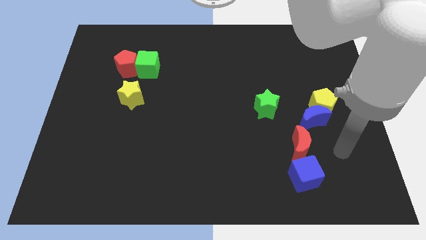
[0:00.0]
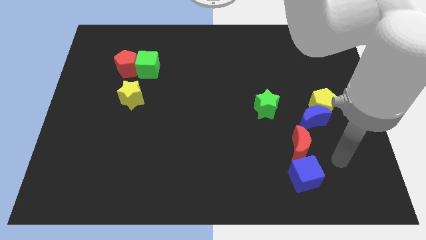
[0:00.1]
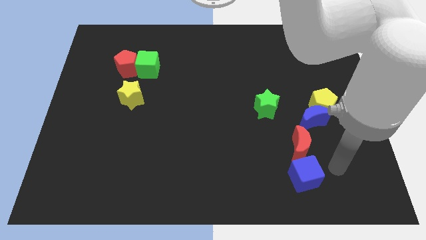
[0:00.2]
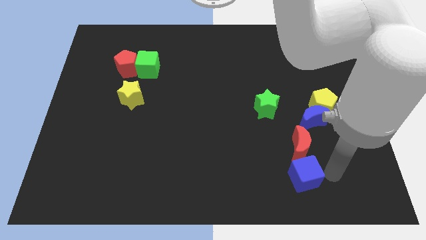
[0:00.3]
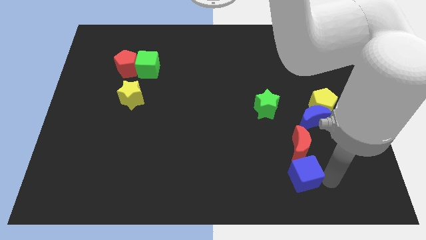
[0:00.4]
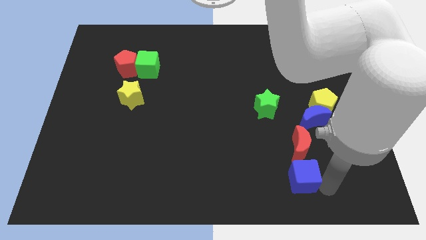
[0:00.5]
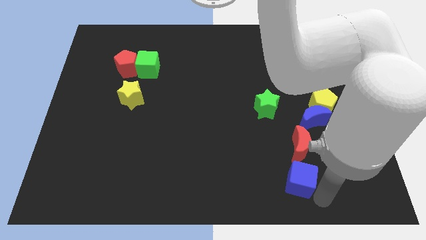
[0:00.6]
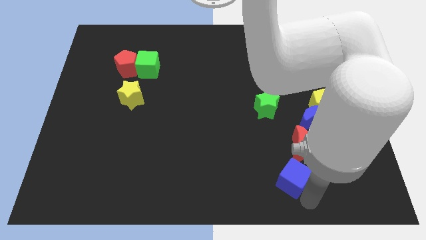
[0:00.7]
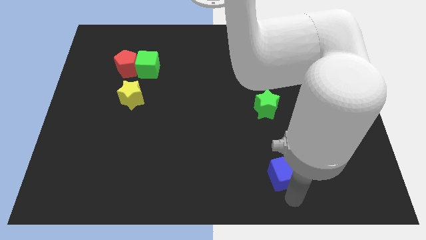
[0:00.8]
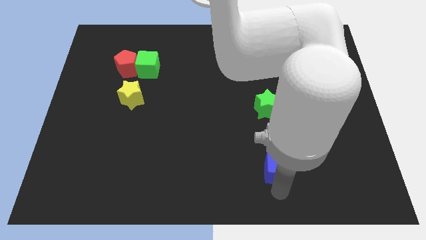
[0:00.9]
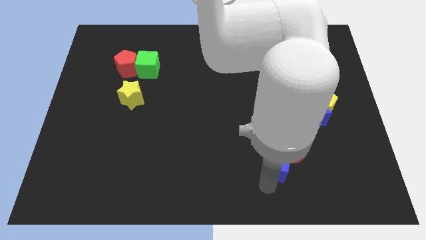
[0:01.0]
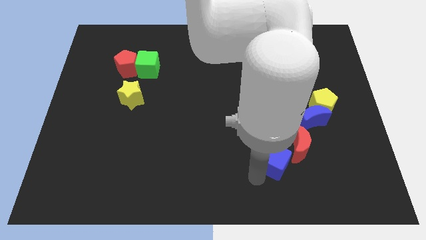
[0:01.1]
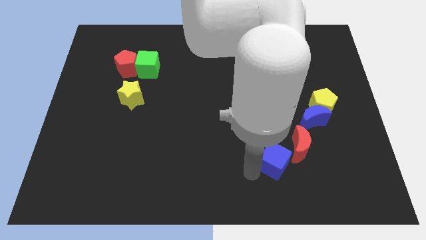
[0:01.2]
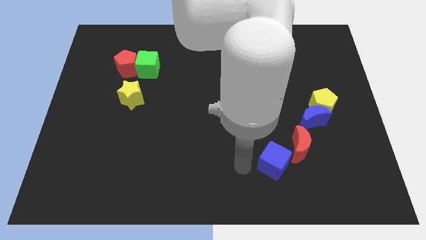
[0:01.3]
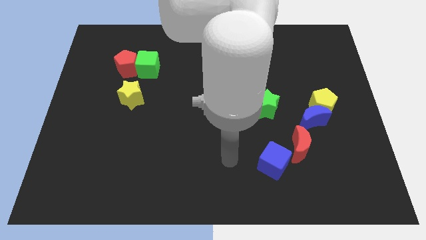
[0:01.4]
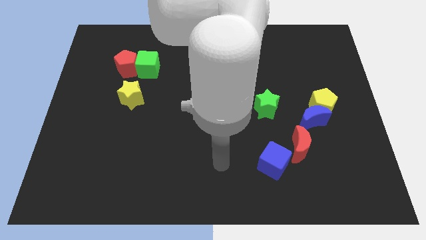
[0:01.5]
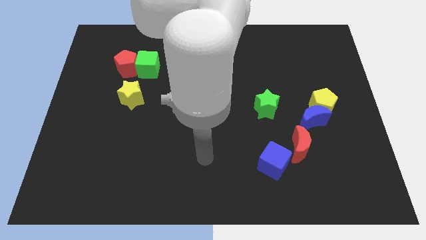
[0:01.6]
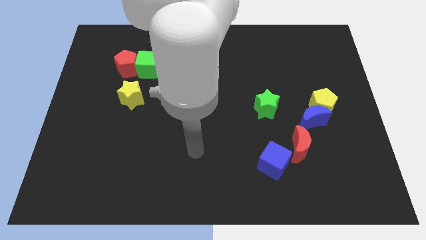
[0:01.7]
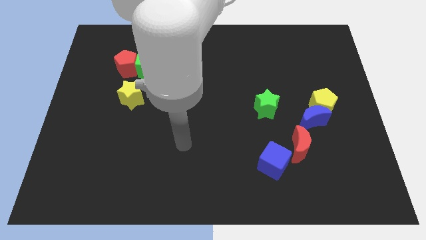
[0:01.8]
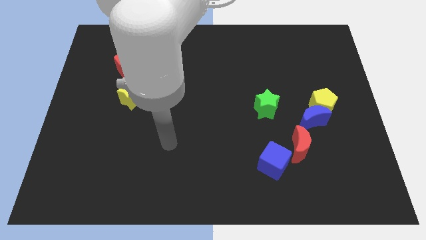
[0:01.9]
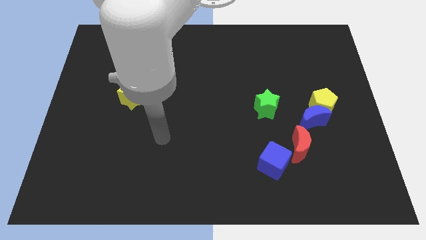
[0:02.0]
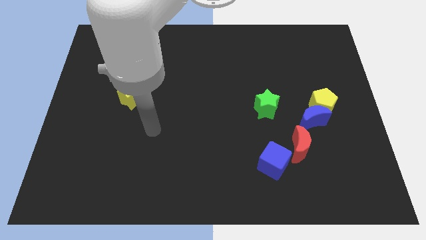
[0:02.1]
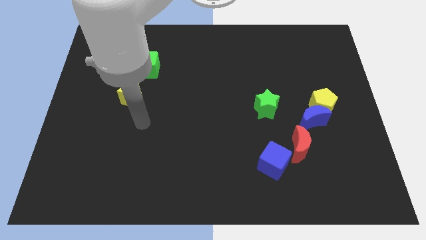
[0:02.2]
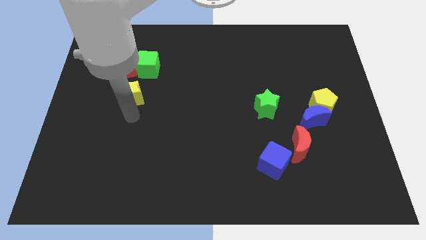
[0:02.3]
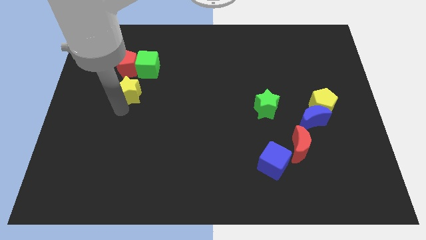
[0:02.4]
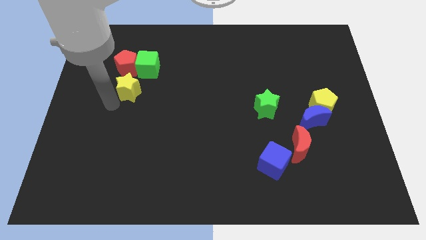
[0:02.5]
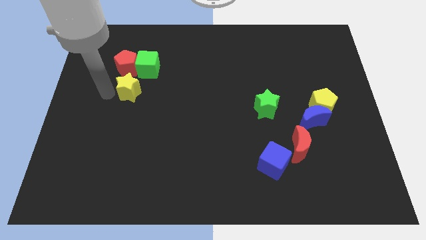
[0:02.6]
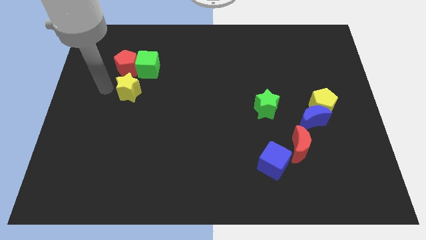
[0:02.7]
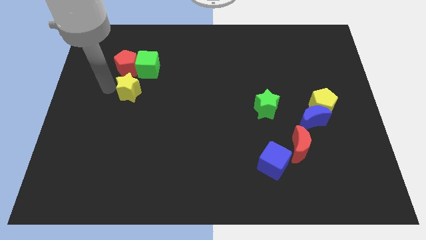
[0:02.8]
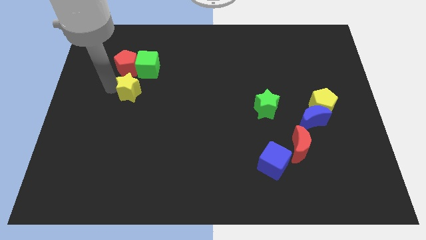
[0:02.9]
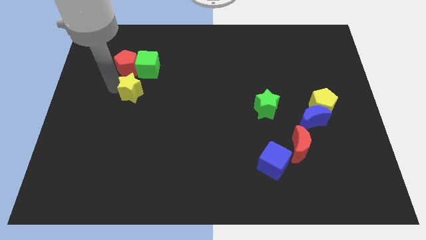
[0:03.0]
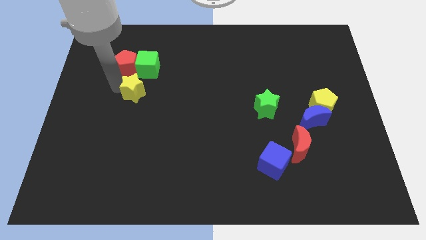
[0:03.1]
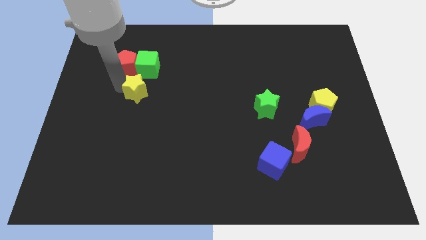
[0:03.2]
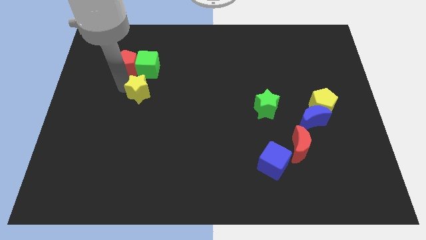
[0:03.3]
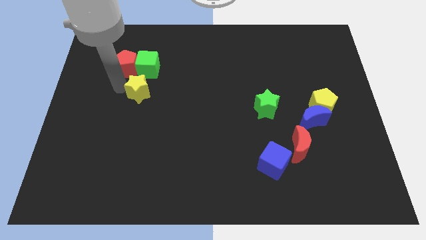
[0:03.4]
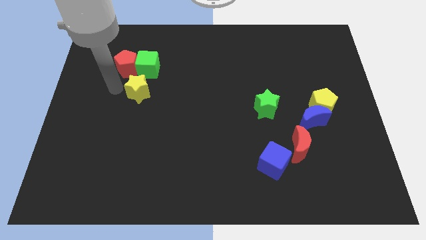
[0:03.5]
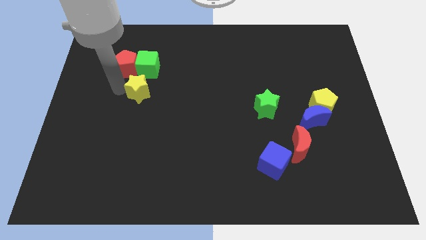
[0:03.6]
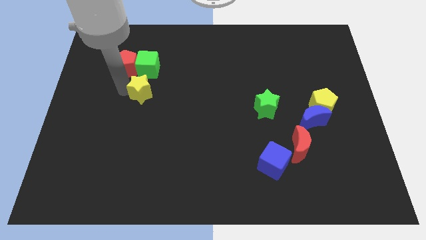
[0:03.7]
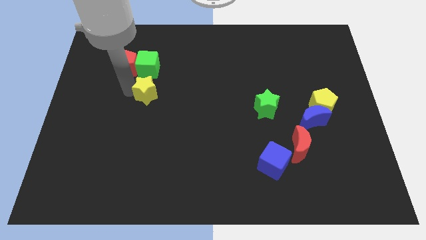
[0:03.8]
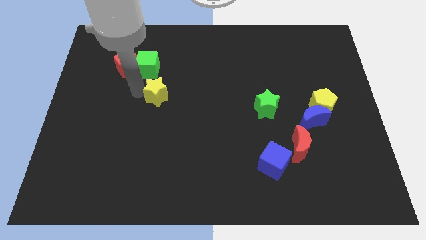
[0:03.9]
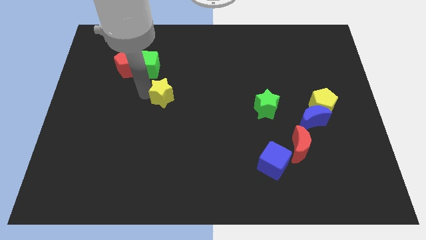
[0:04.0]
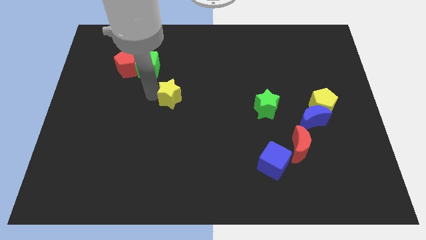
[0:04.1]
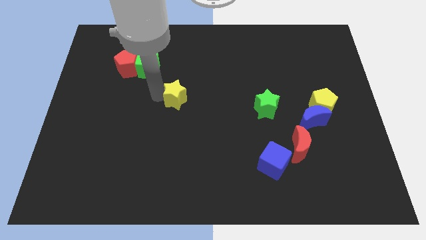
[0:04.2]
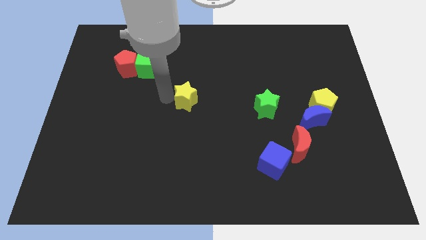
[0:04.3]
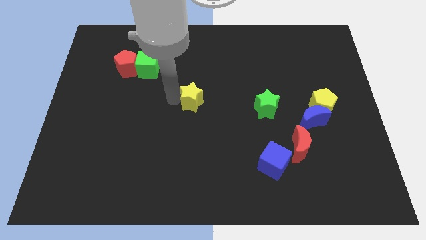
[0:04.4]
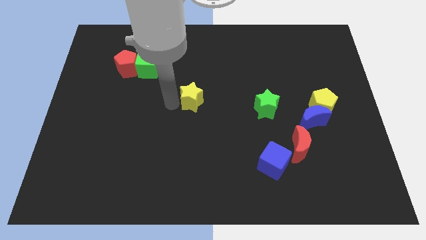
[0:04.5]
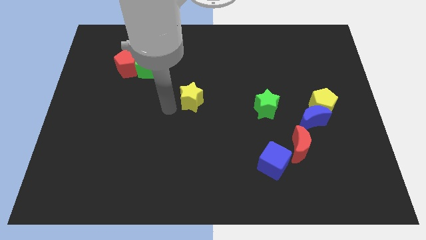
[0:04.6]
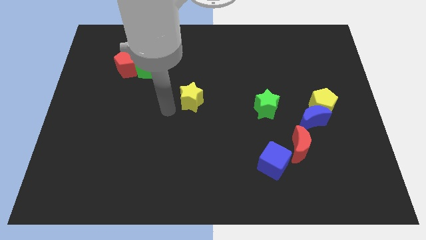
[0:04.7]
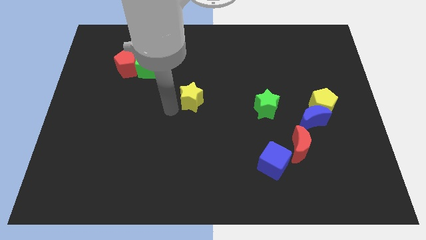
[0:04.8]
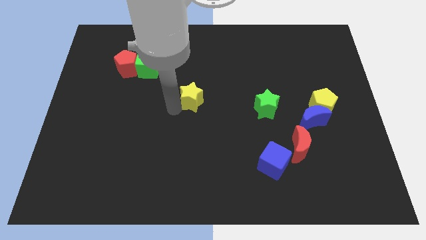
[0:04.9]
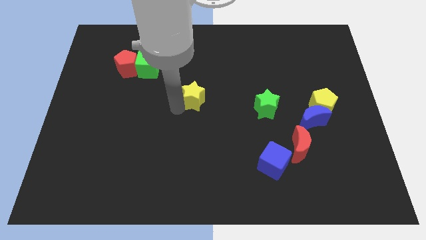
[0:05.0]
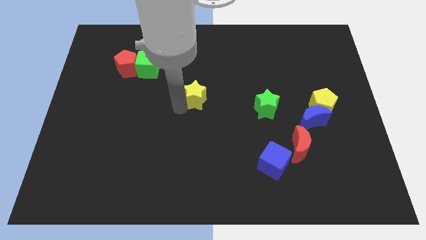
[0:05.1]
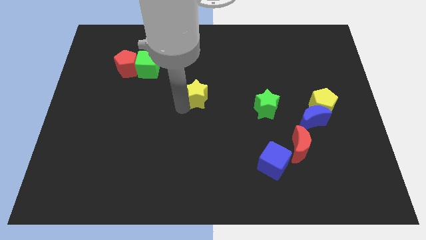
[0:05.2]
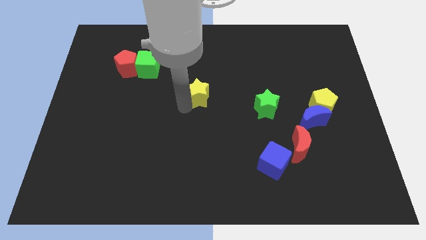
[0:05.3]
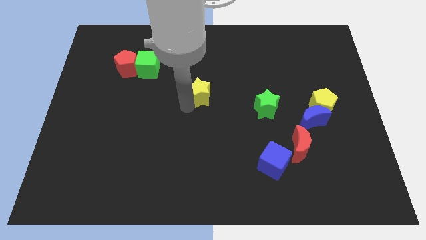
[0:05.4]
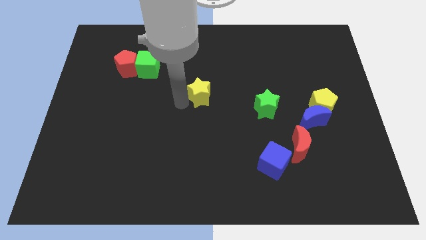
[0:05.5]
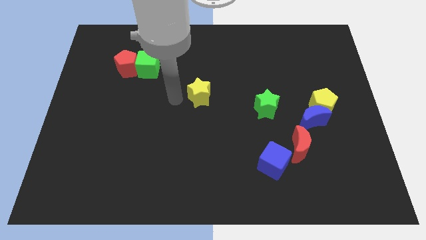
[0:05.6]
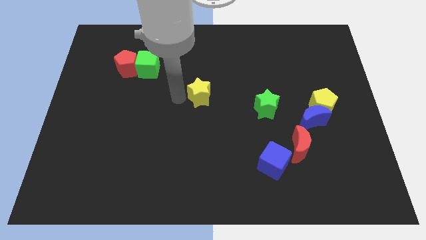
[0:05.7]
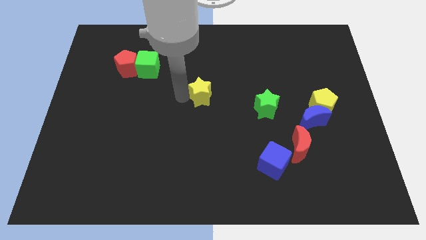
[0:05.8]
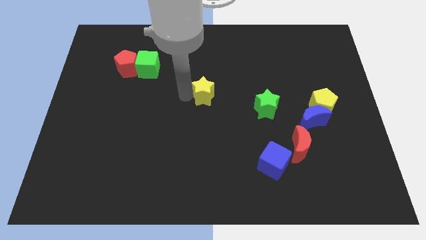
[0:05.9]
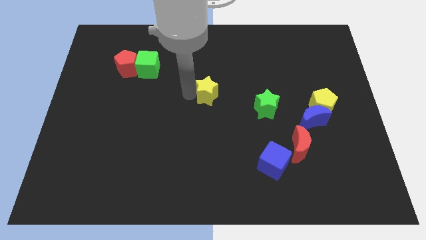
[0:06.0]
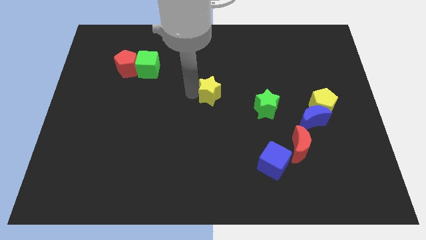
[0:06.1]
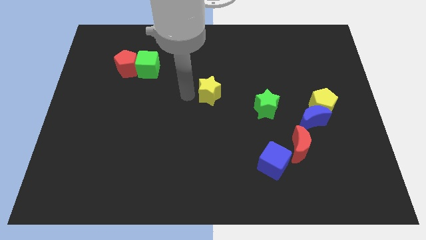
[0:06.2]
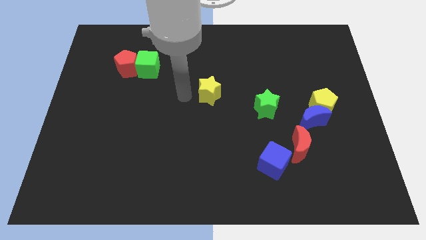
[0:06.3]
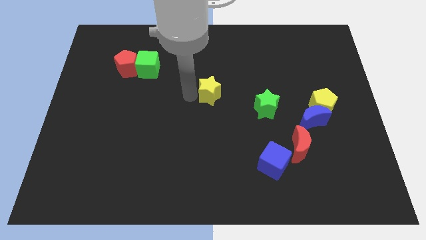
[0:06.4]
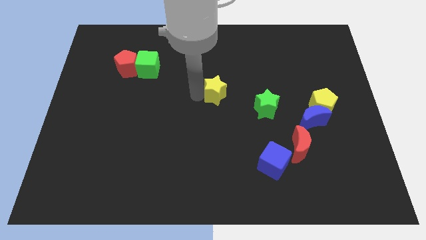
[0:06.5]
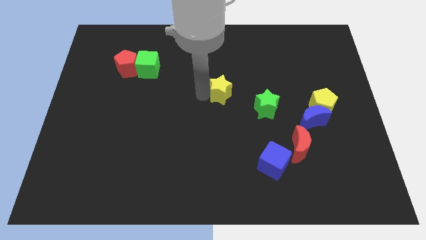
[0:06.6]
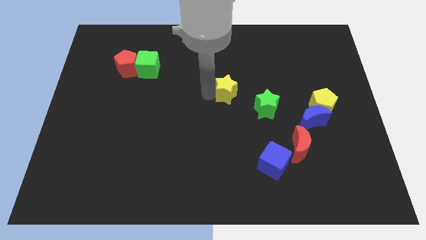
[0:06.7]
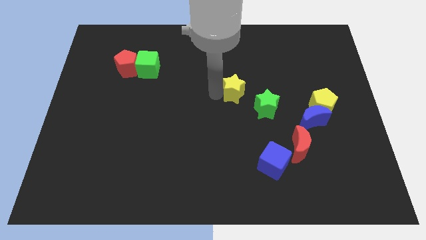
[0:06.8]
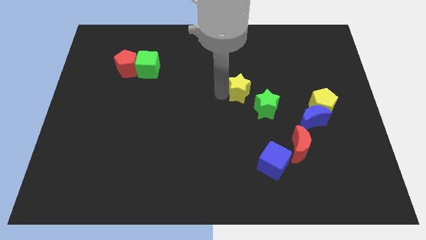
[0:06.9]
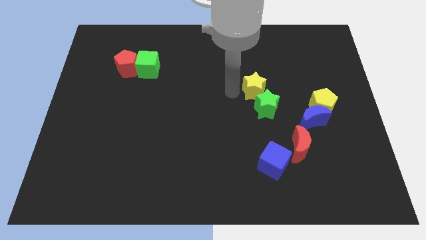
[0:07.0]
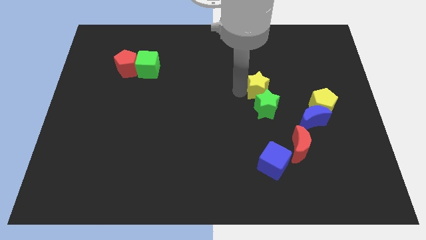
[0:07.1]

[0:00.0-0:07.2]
slide the yellow star to the top right of the green star

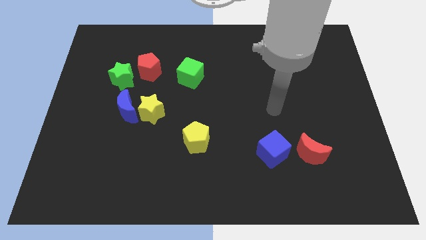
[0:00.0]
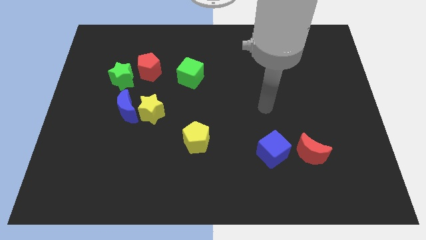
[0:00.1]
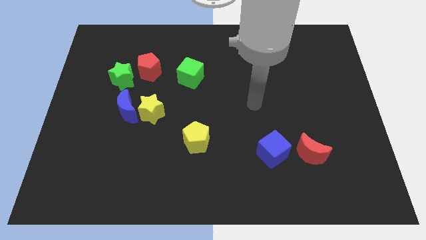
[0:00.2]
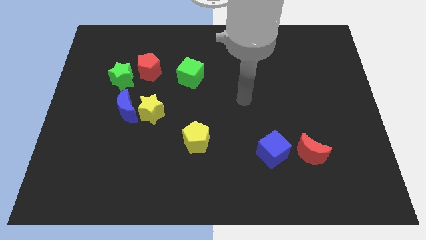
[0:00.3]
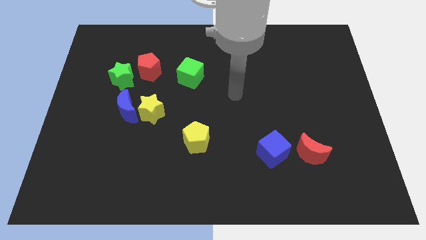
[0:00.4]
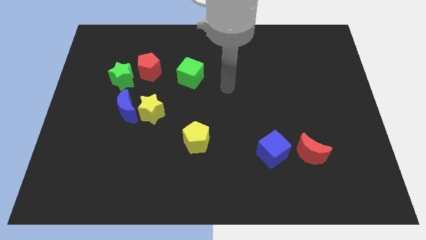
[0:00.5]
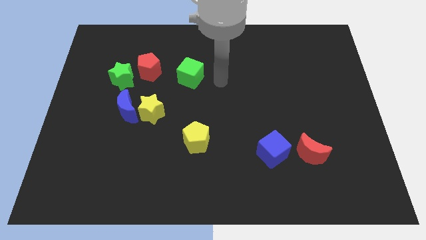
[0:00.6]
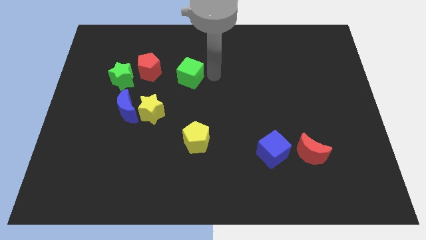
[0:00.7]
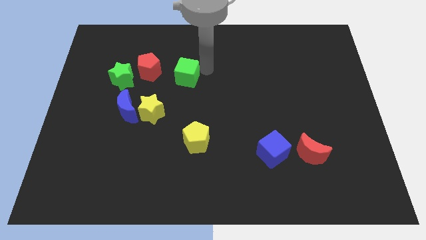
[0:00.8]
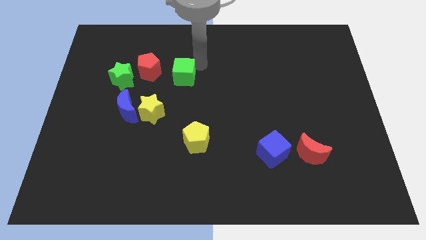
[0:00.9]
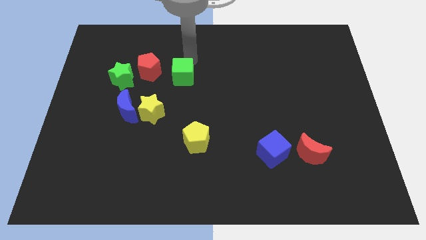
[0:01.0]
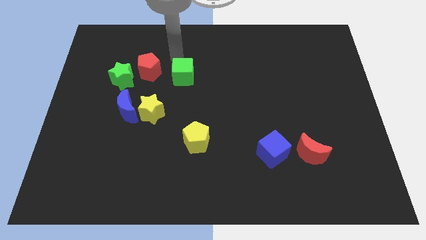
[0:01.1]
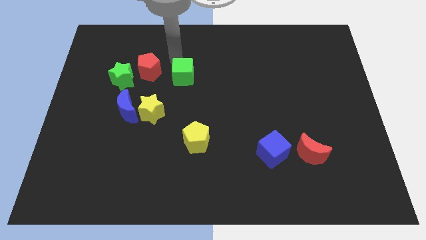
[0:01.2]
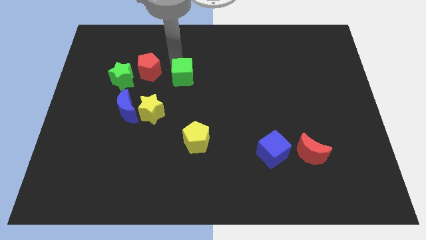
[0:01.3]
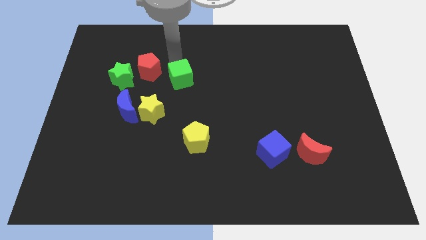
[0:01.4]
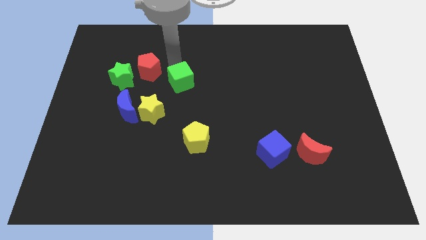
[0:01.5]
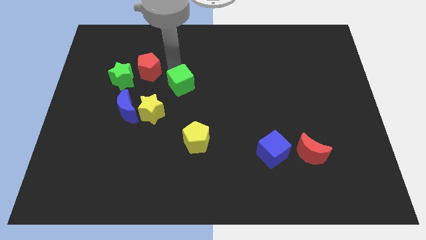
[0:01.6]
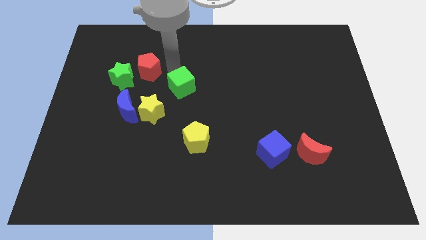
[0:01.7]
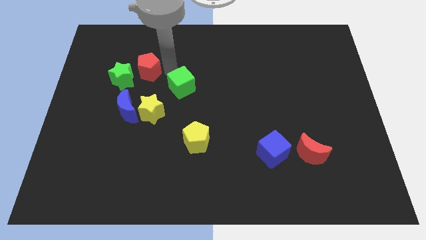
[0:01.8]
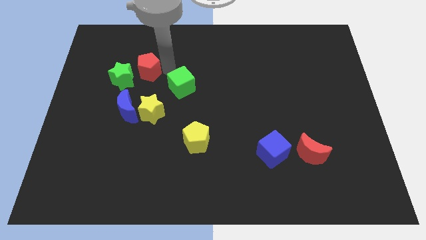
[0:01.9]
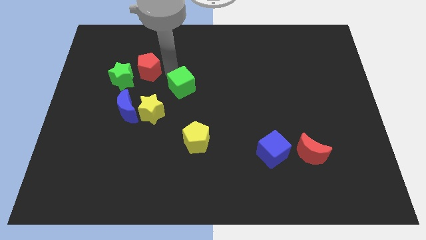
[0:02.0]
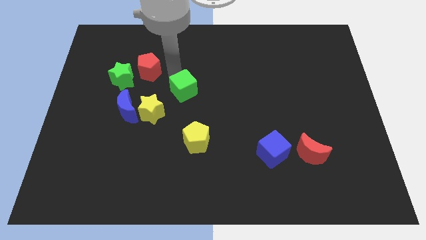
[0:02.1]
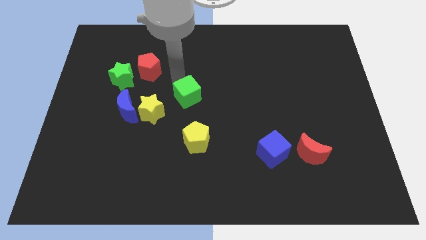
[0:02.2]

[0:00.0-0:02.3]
put the green cube above the yellow pentagon
